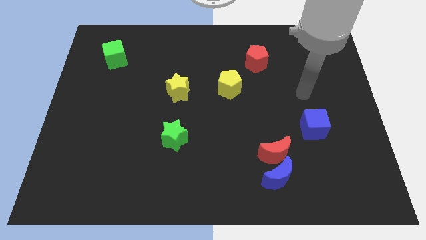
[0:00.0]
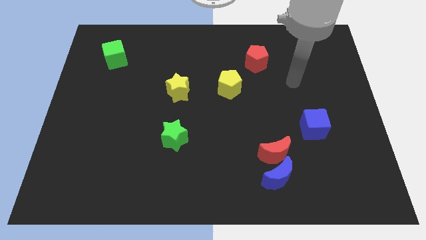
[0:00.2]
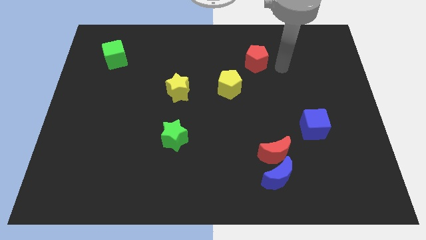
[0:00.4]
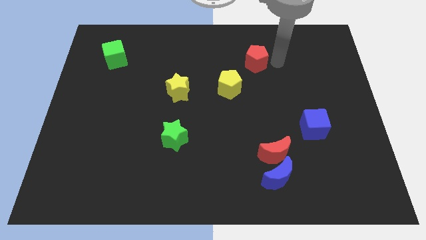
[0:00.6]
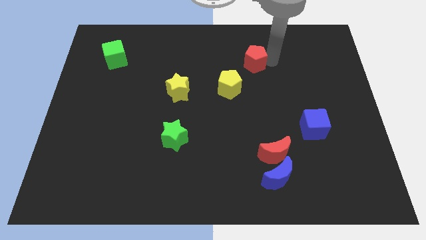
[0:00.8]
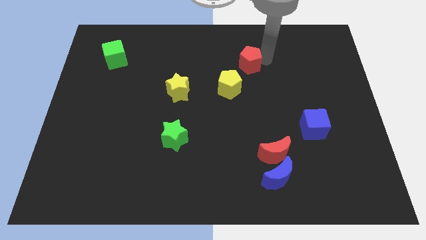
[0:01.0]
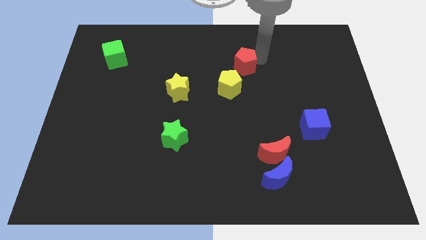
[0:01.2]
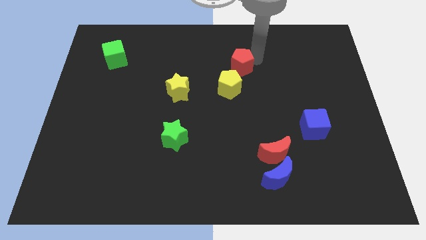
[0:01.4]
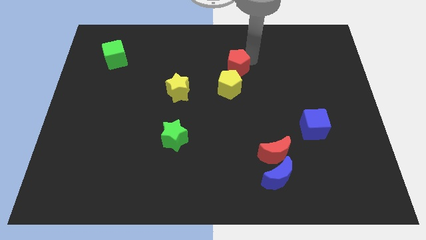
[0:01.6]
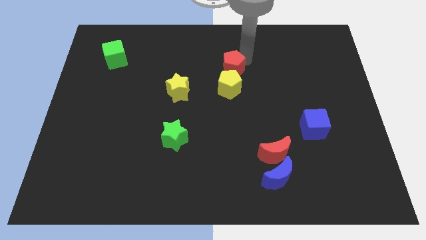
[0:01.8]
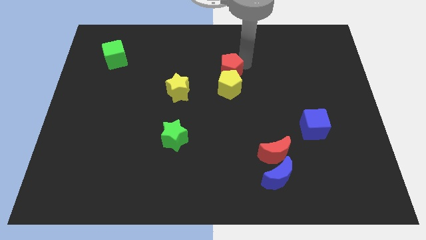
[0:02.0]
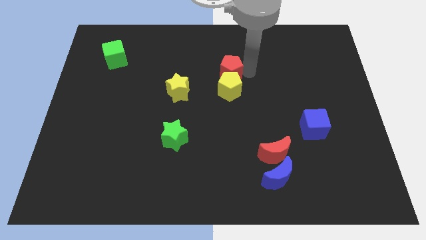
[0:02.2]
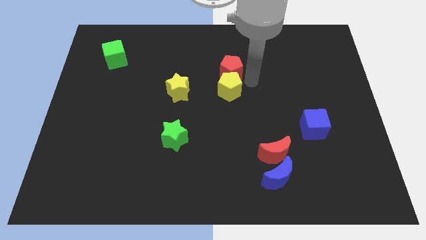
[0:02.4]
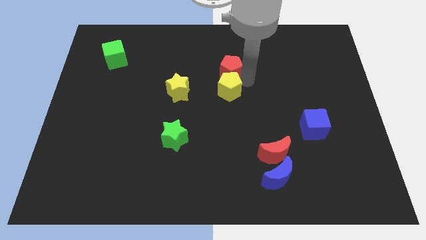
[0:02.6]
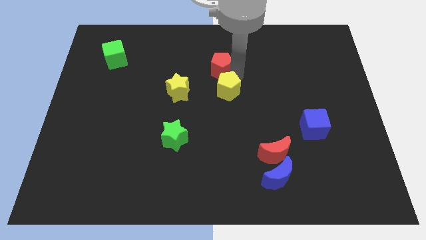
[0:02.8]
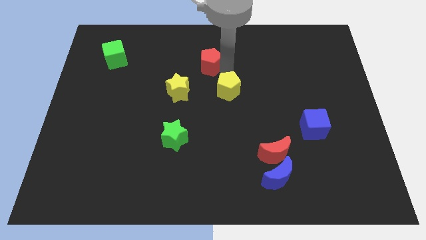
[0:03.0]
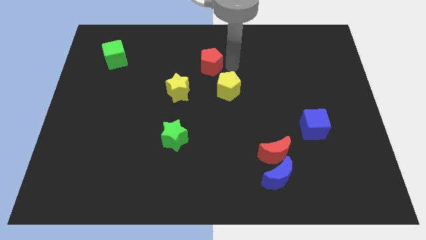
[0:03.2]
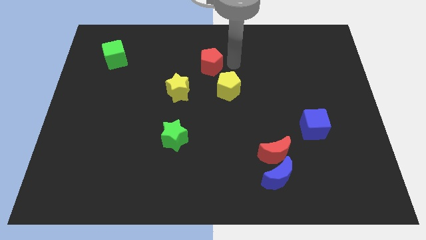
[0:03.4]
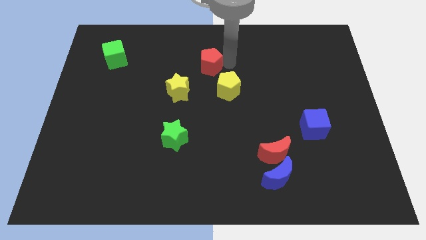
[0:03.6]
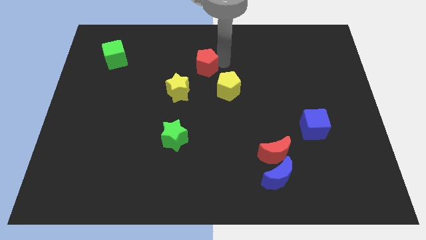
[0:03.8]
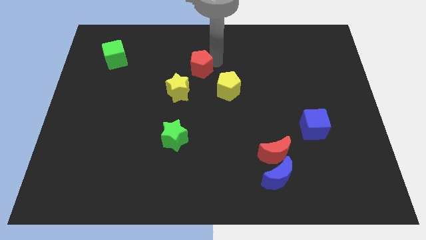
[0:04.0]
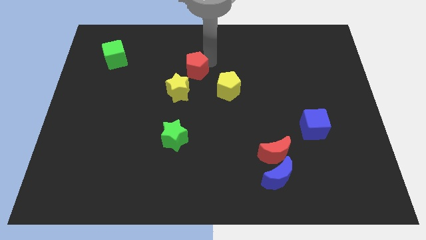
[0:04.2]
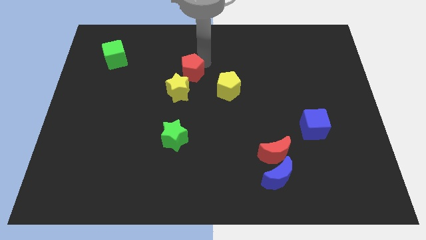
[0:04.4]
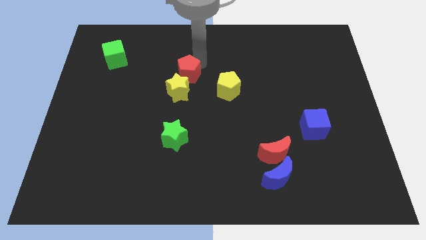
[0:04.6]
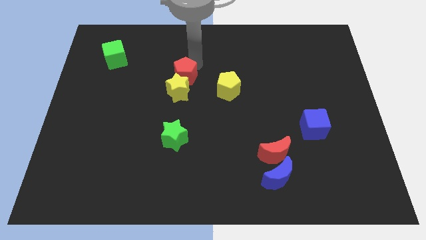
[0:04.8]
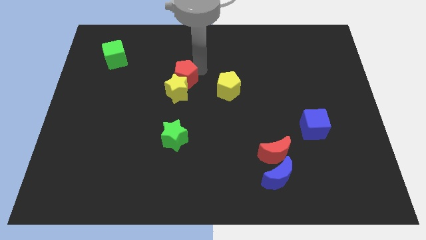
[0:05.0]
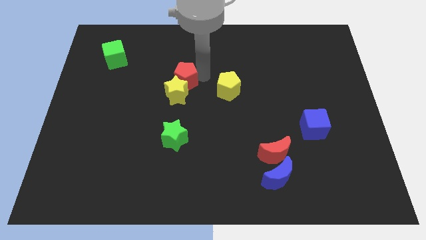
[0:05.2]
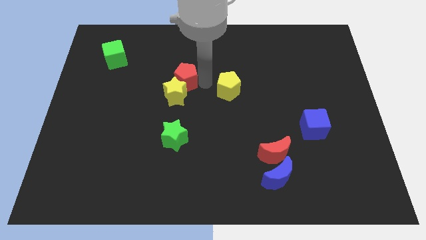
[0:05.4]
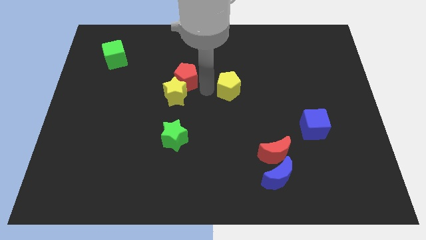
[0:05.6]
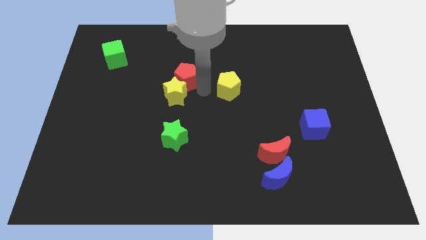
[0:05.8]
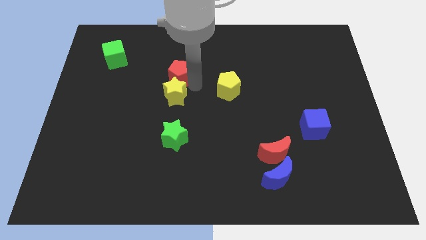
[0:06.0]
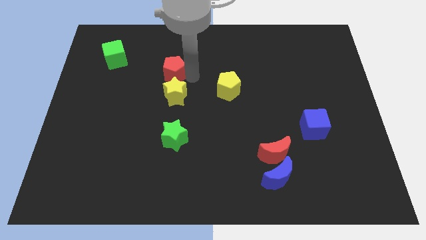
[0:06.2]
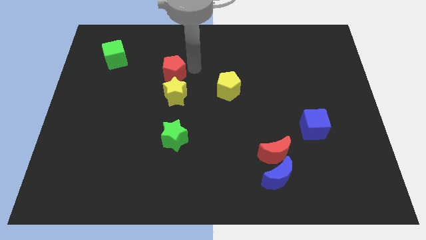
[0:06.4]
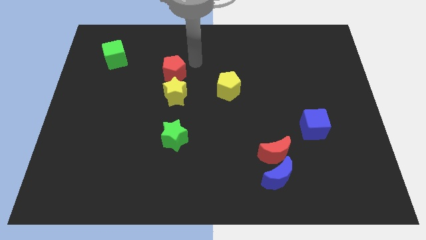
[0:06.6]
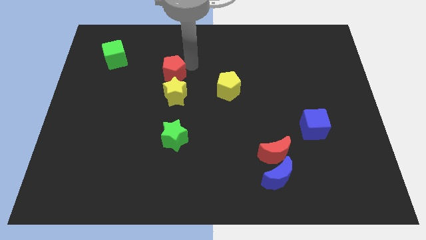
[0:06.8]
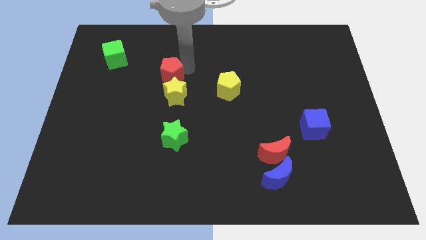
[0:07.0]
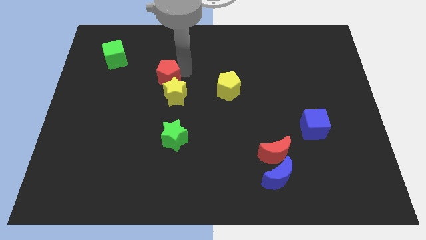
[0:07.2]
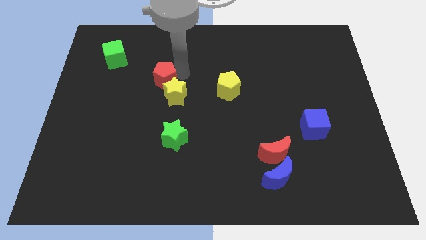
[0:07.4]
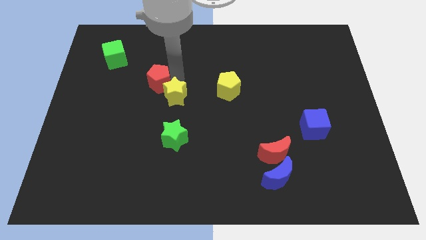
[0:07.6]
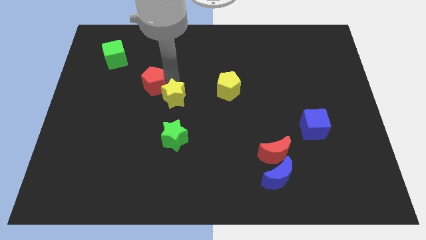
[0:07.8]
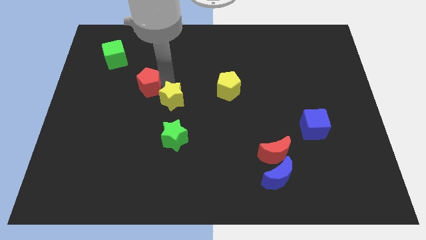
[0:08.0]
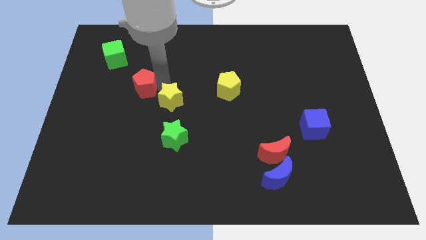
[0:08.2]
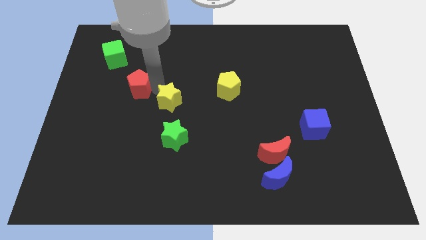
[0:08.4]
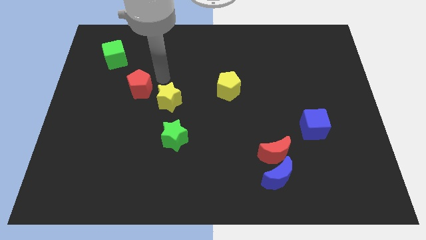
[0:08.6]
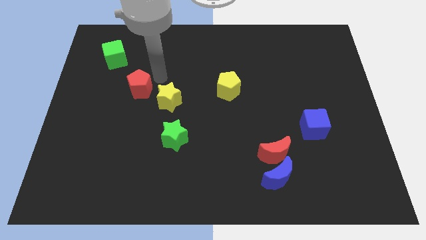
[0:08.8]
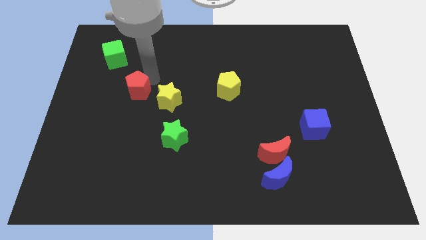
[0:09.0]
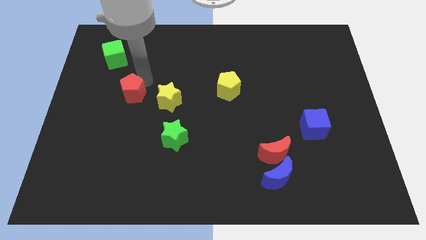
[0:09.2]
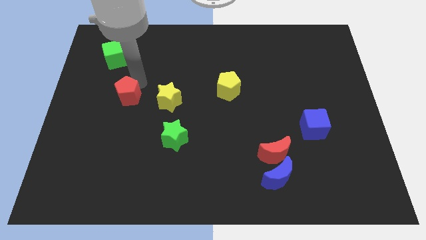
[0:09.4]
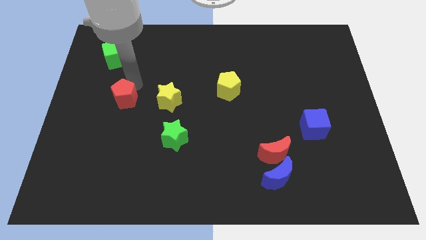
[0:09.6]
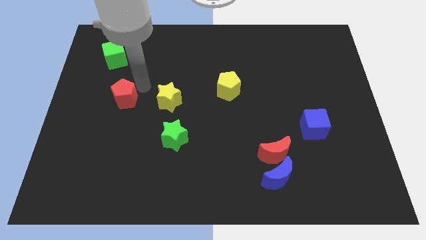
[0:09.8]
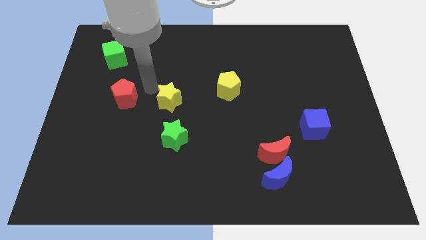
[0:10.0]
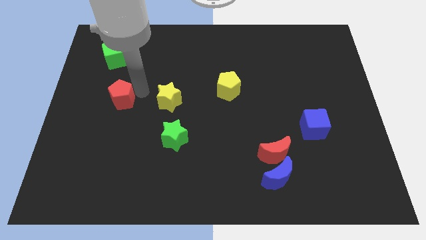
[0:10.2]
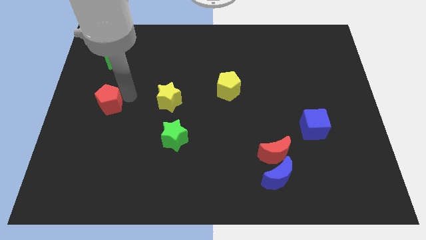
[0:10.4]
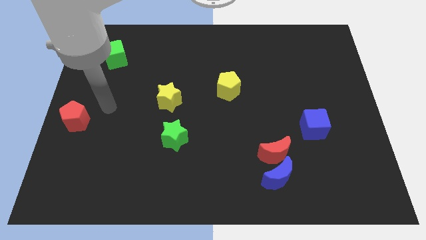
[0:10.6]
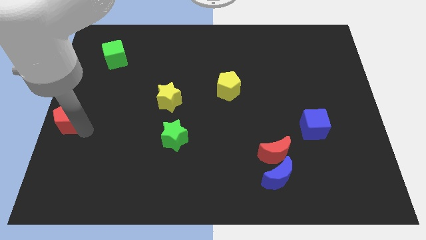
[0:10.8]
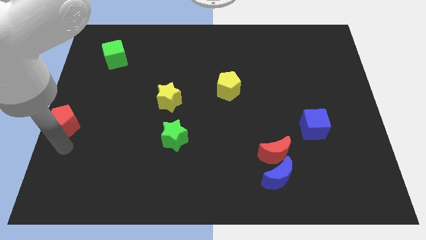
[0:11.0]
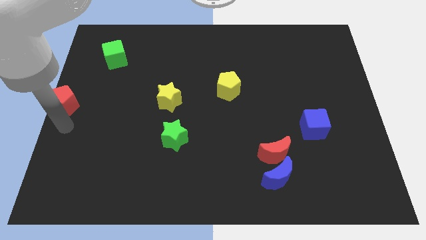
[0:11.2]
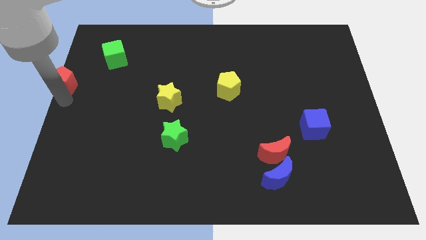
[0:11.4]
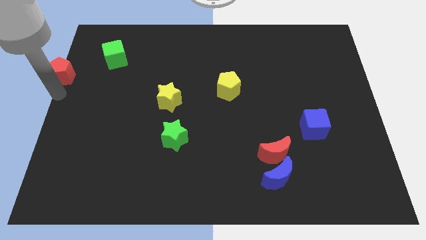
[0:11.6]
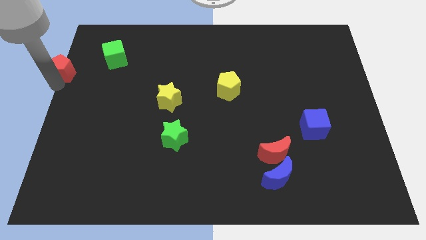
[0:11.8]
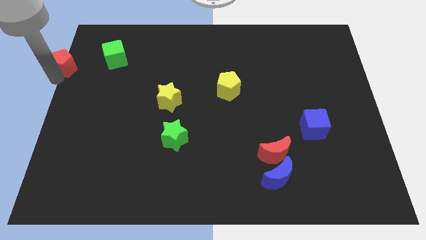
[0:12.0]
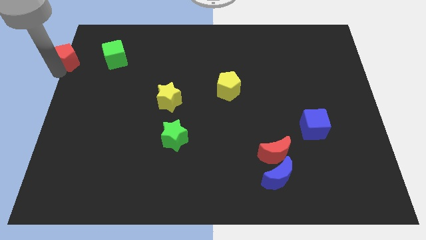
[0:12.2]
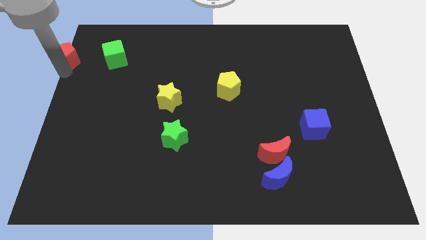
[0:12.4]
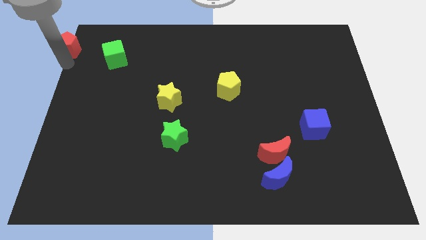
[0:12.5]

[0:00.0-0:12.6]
slide the red pentagon to the top left
